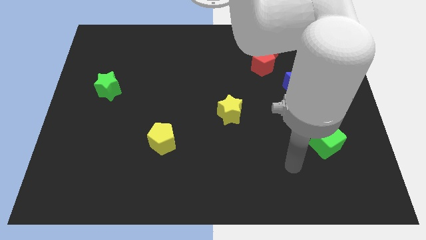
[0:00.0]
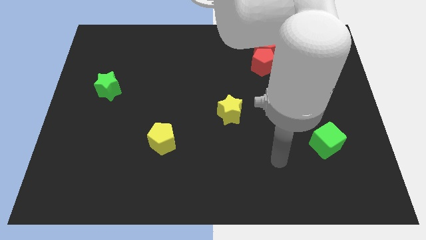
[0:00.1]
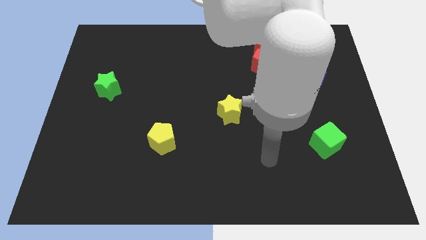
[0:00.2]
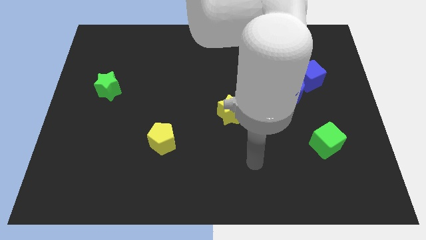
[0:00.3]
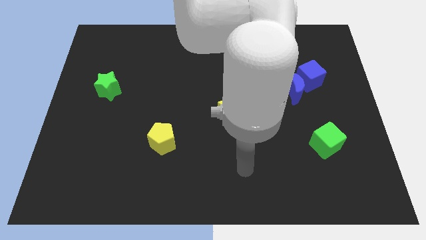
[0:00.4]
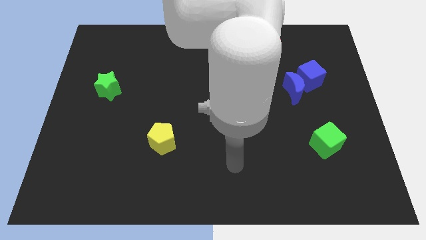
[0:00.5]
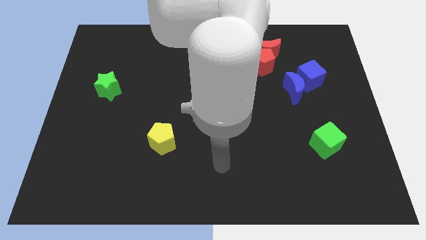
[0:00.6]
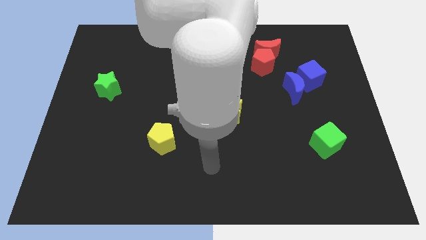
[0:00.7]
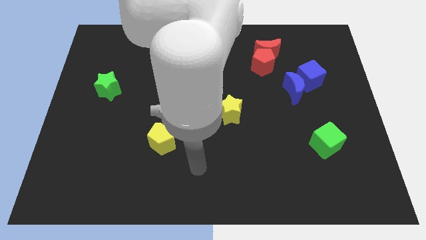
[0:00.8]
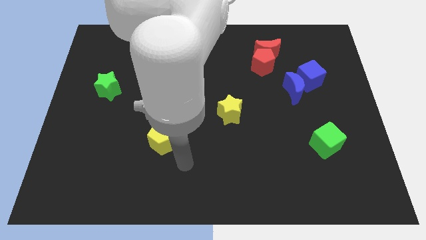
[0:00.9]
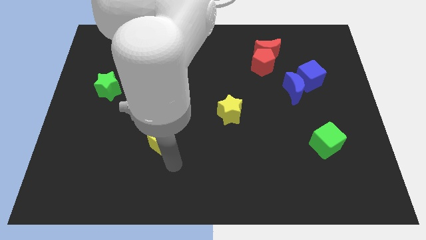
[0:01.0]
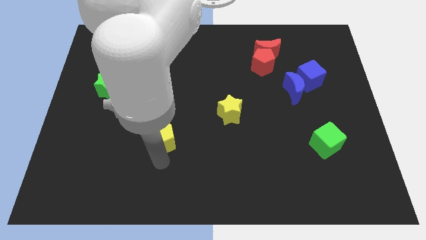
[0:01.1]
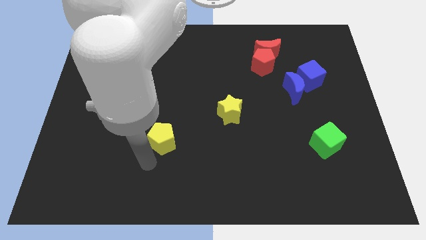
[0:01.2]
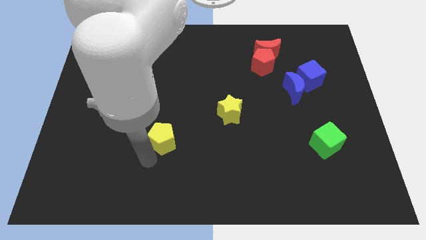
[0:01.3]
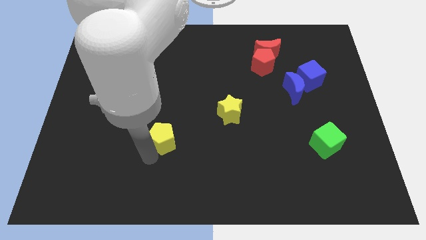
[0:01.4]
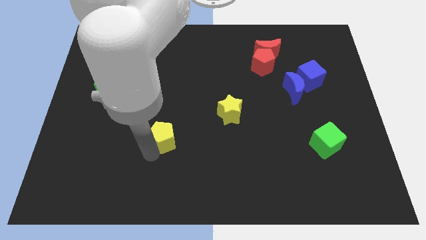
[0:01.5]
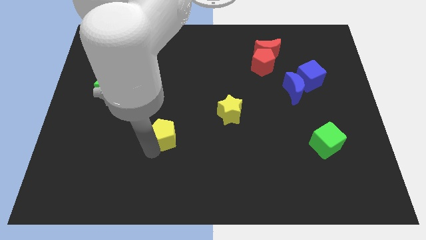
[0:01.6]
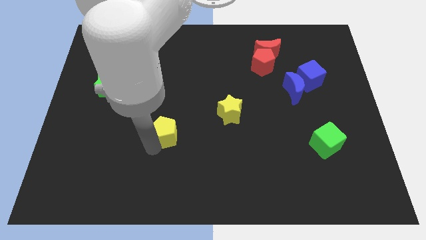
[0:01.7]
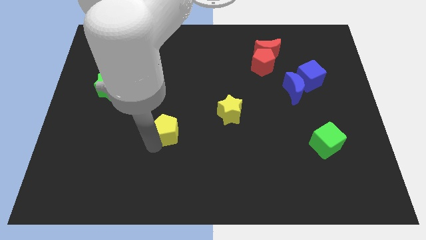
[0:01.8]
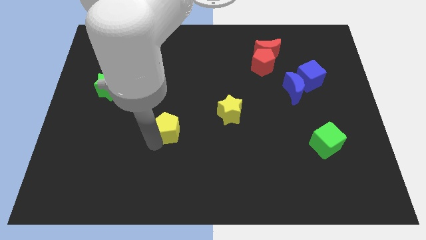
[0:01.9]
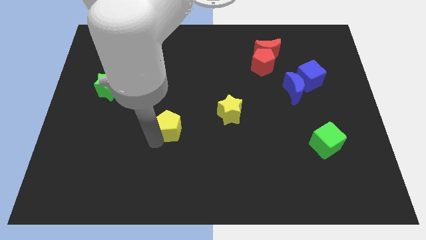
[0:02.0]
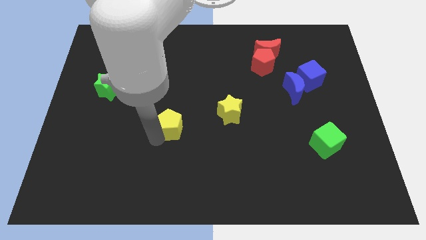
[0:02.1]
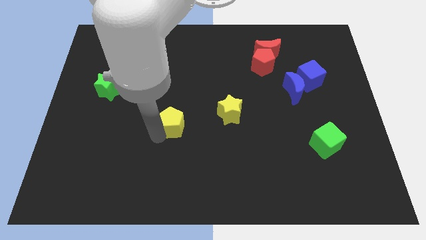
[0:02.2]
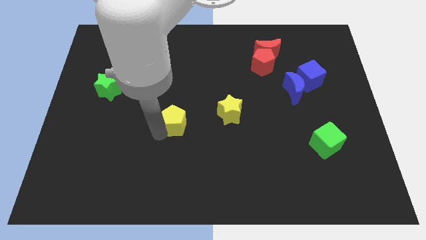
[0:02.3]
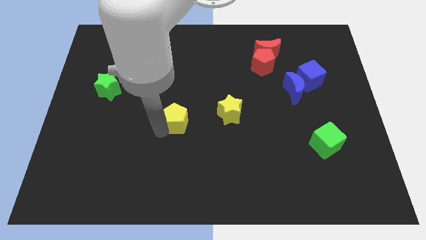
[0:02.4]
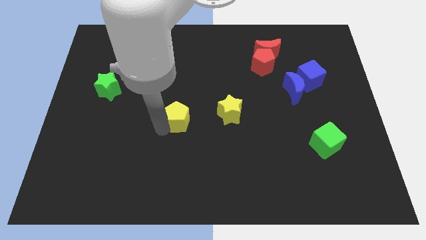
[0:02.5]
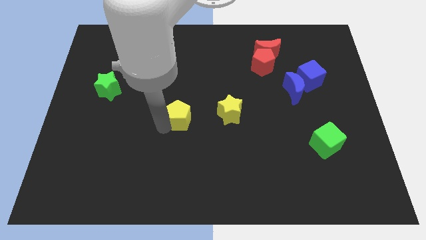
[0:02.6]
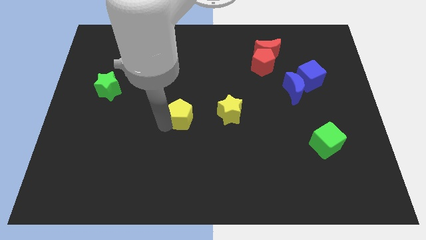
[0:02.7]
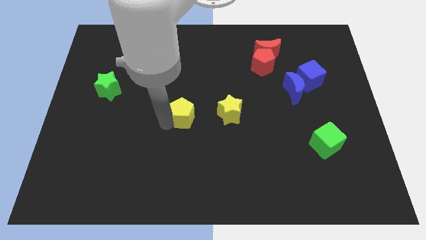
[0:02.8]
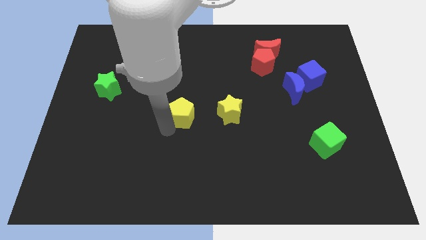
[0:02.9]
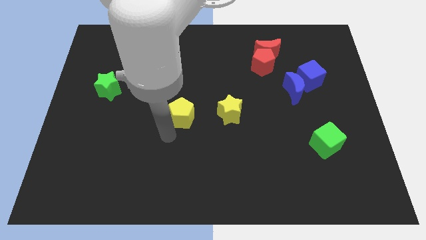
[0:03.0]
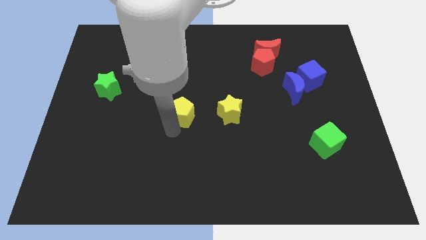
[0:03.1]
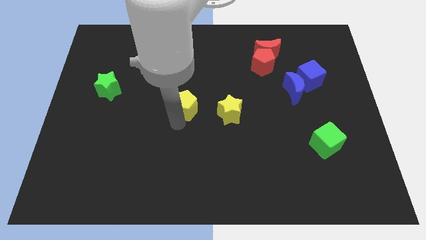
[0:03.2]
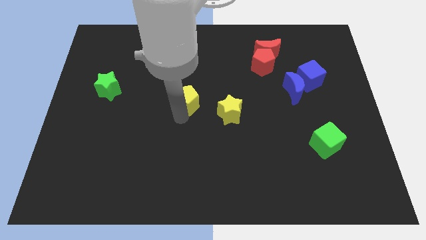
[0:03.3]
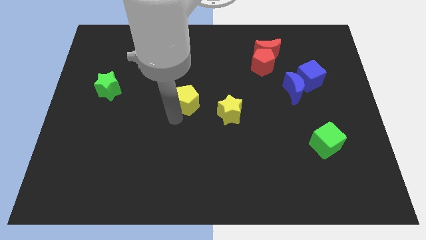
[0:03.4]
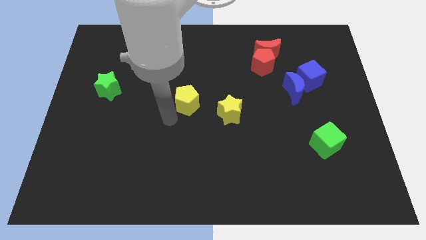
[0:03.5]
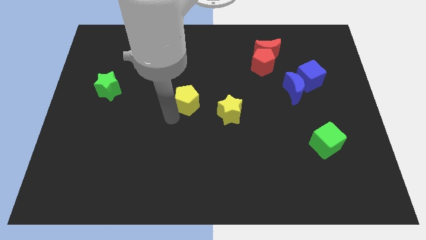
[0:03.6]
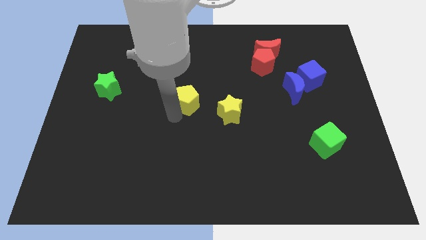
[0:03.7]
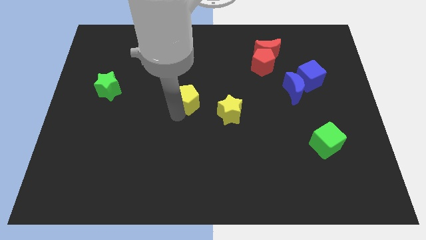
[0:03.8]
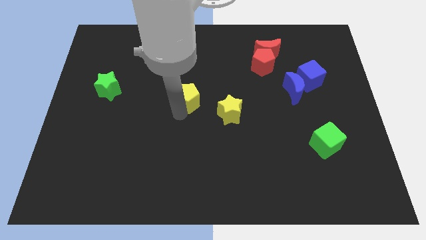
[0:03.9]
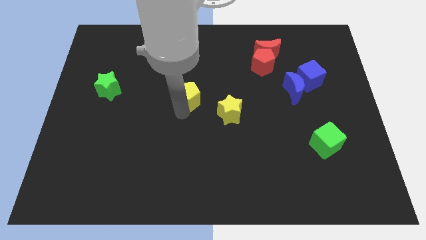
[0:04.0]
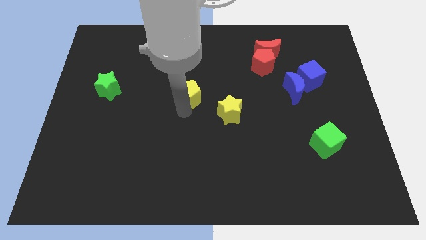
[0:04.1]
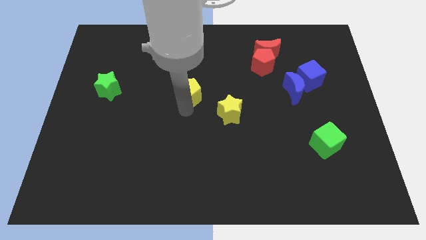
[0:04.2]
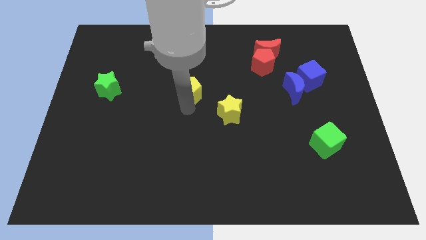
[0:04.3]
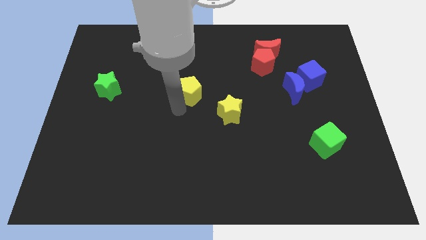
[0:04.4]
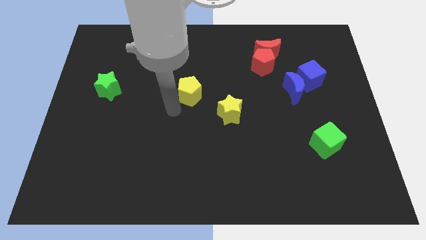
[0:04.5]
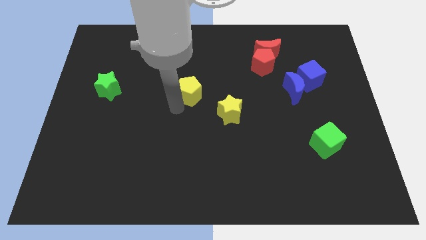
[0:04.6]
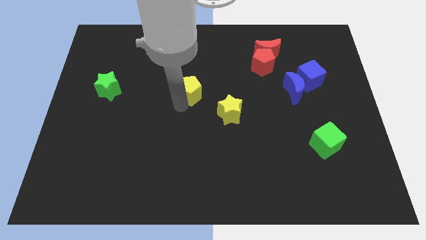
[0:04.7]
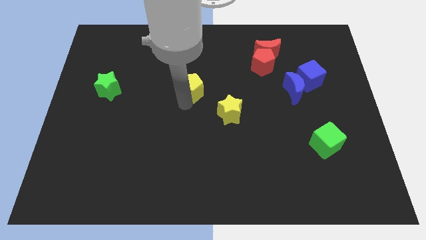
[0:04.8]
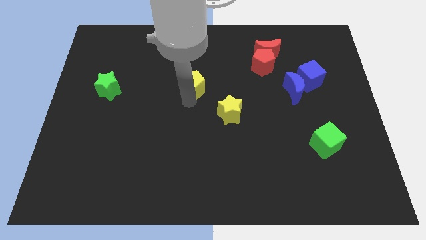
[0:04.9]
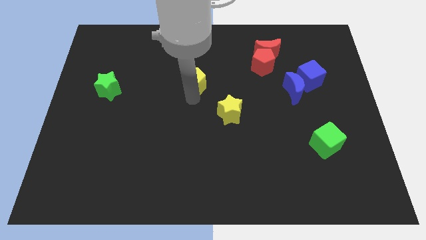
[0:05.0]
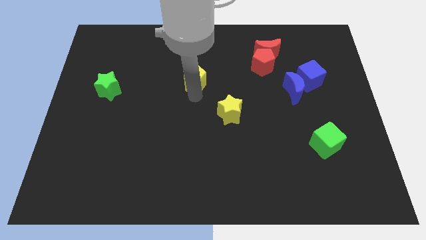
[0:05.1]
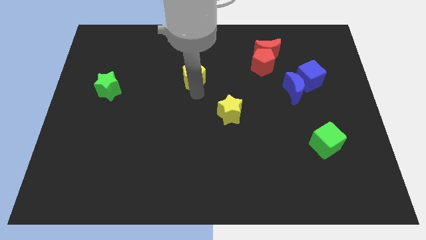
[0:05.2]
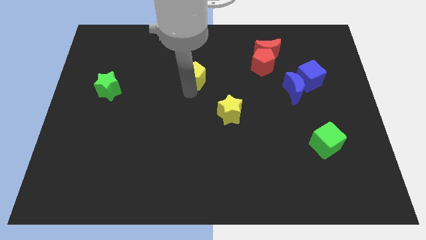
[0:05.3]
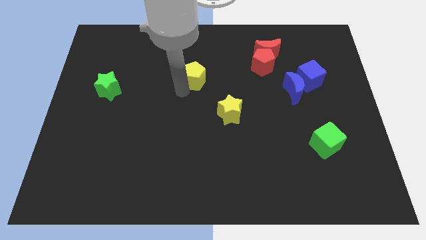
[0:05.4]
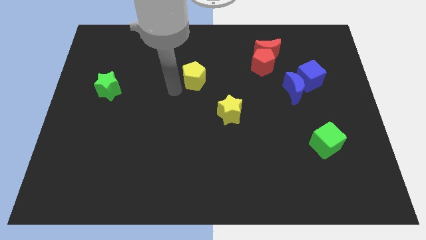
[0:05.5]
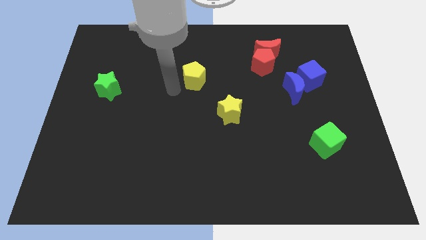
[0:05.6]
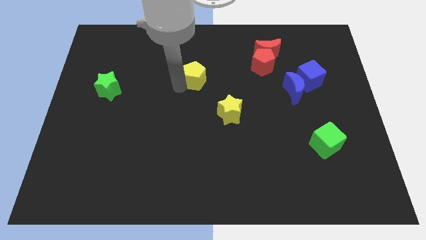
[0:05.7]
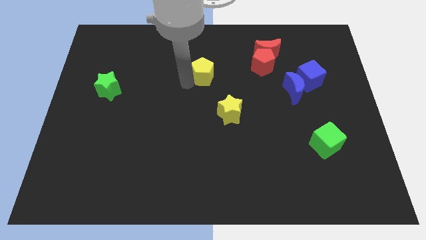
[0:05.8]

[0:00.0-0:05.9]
move the yellow pentagon left of the red pentagon

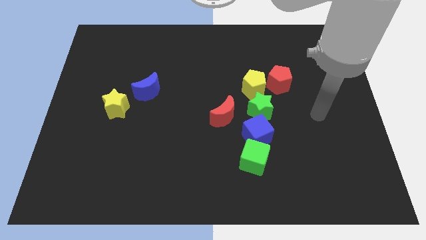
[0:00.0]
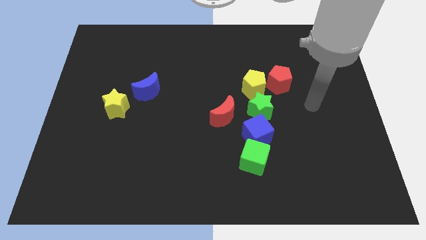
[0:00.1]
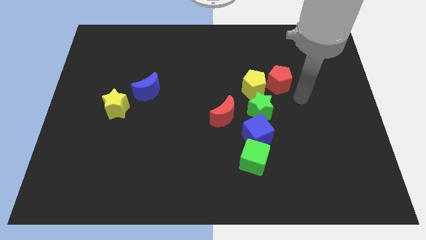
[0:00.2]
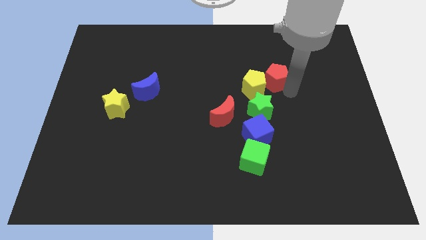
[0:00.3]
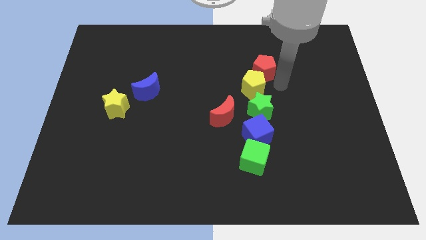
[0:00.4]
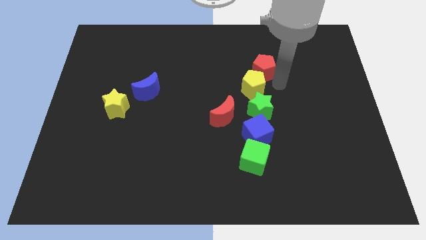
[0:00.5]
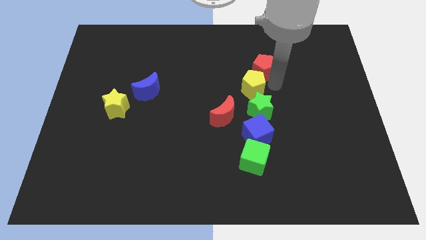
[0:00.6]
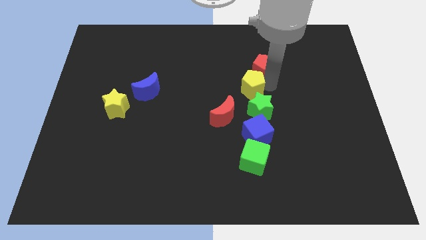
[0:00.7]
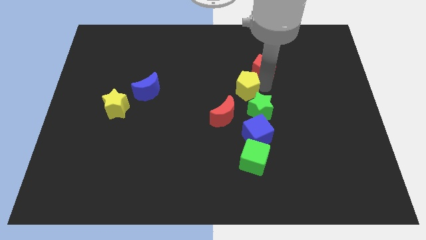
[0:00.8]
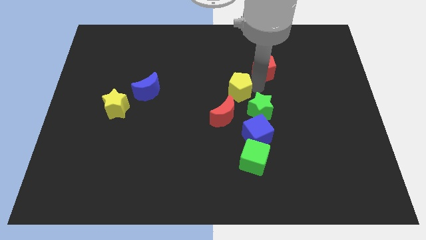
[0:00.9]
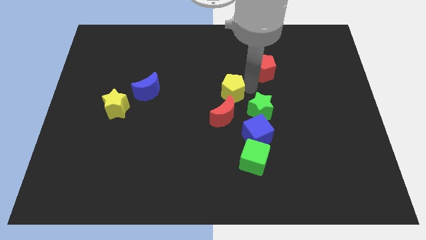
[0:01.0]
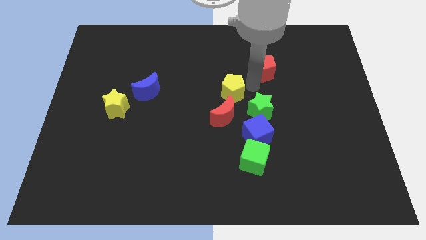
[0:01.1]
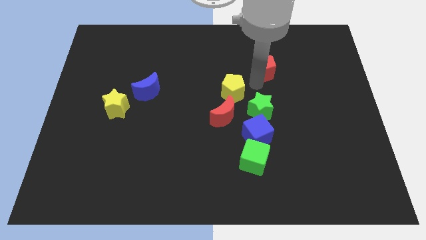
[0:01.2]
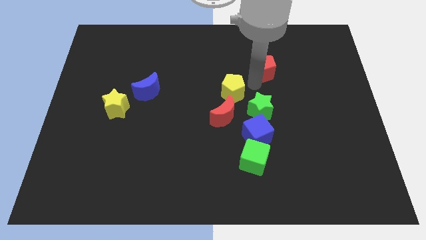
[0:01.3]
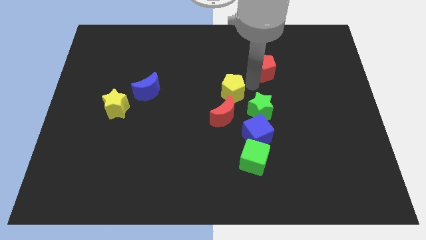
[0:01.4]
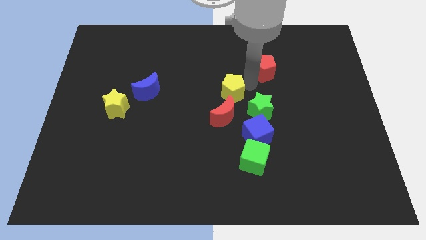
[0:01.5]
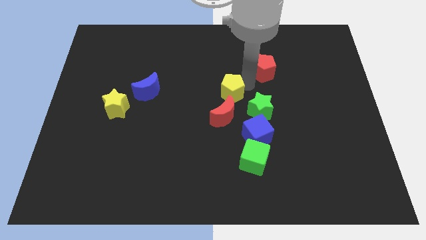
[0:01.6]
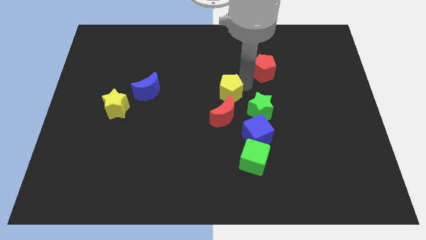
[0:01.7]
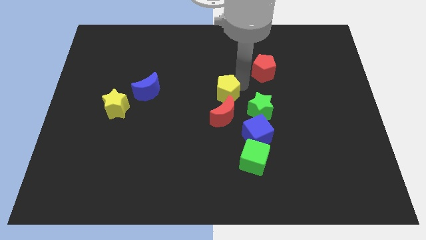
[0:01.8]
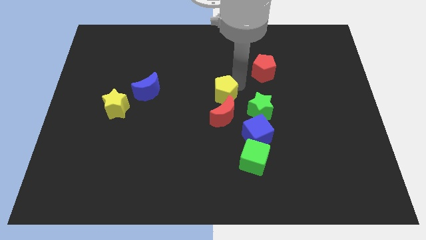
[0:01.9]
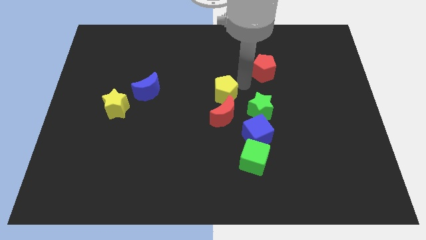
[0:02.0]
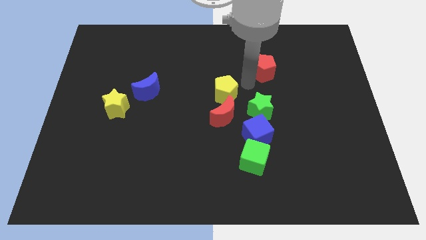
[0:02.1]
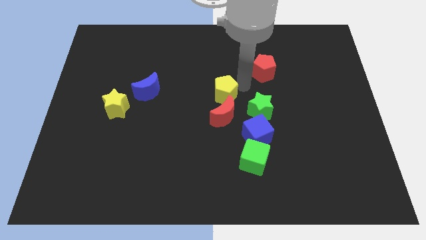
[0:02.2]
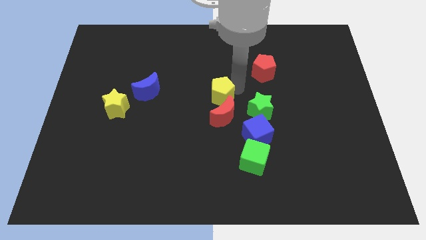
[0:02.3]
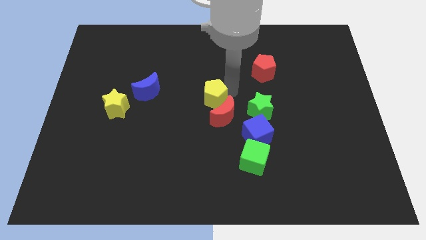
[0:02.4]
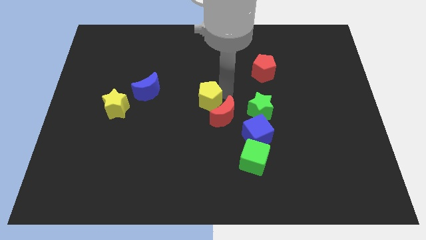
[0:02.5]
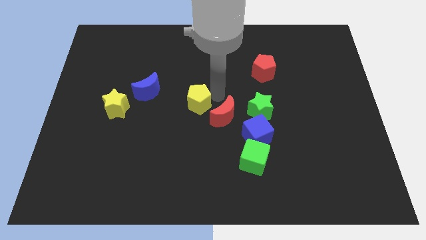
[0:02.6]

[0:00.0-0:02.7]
put the yellow pentagon to the left of the red moon
